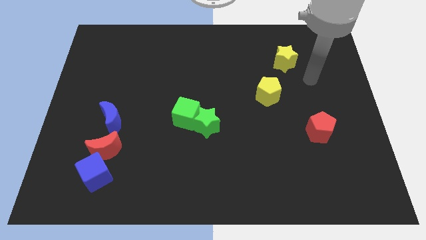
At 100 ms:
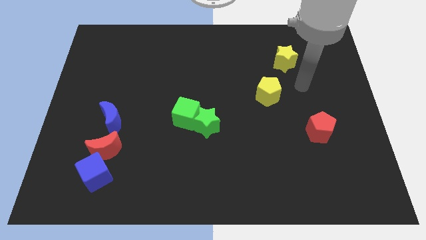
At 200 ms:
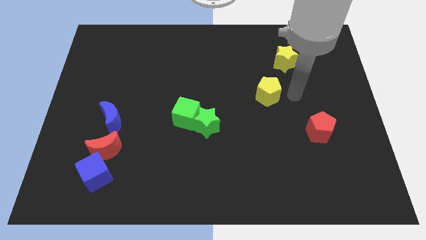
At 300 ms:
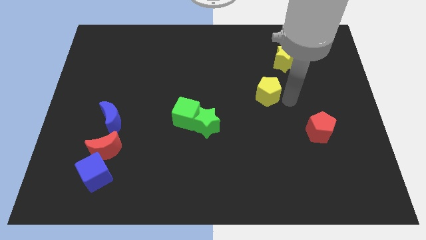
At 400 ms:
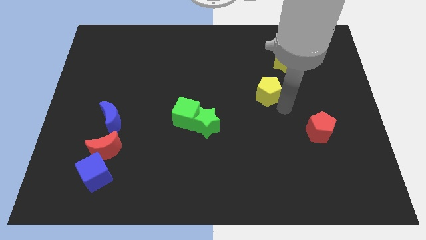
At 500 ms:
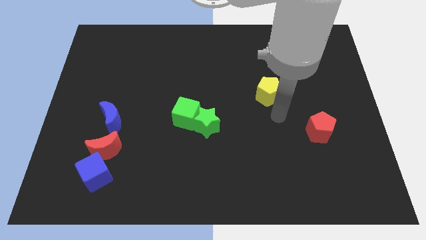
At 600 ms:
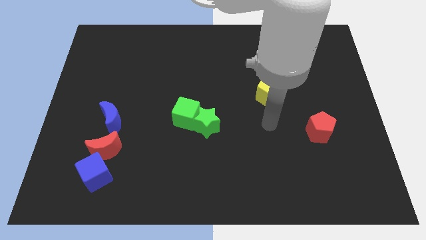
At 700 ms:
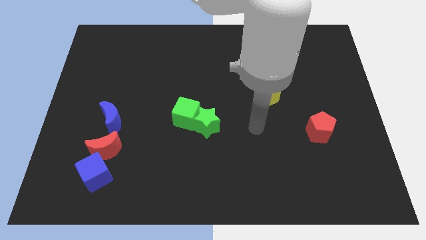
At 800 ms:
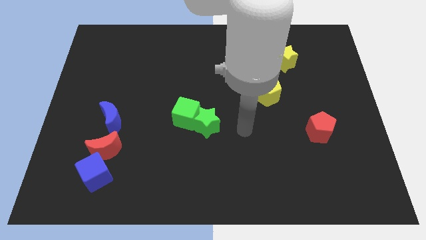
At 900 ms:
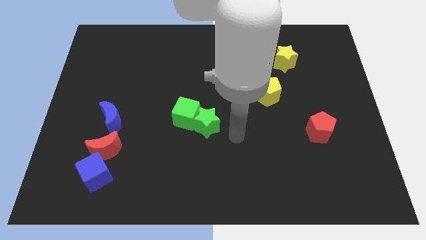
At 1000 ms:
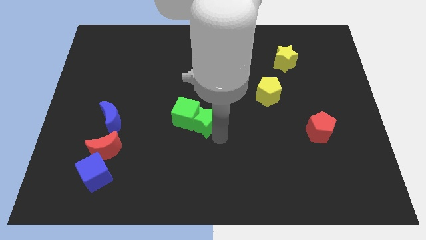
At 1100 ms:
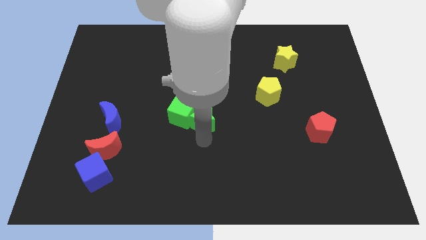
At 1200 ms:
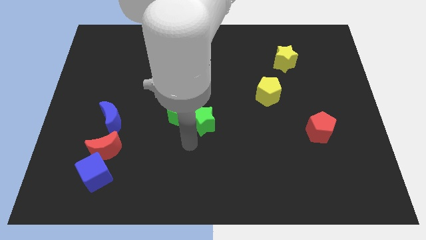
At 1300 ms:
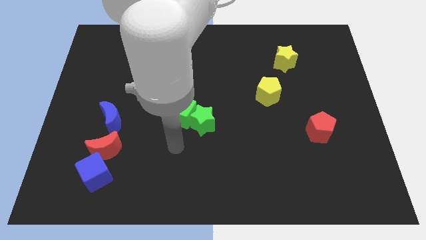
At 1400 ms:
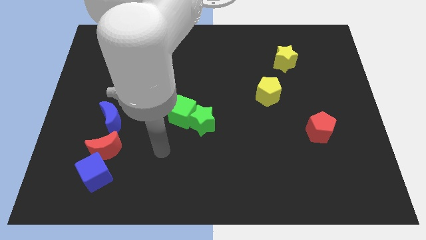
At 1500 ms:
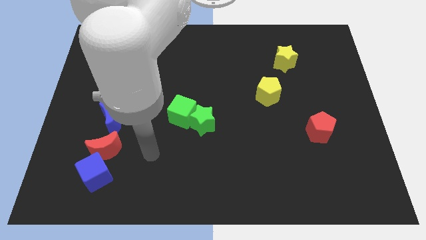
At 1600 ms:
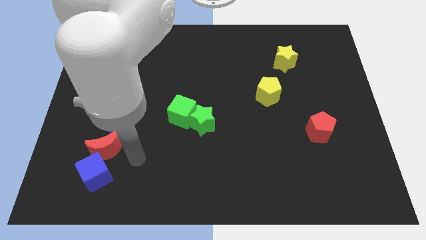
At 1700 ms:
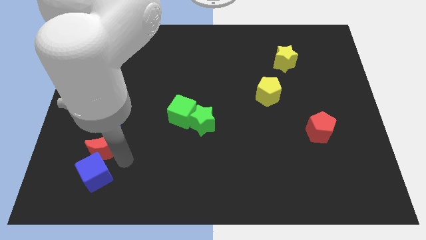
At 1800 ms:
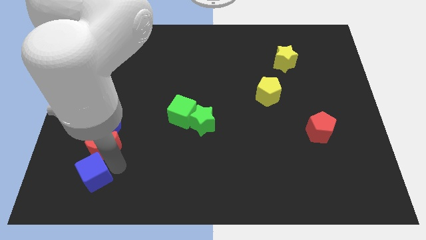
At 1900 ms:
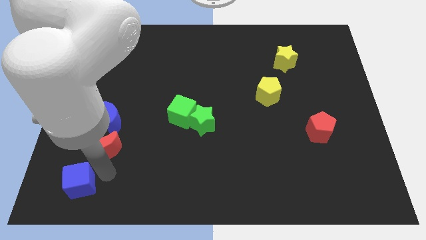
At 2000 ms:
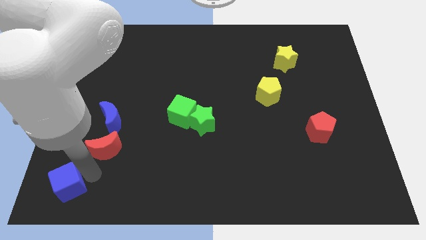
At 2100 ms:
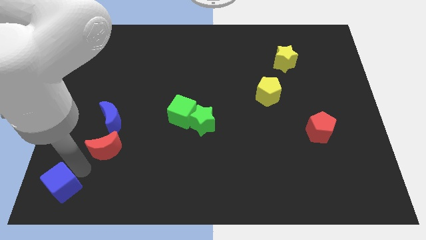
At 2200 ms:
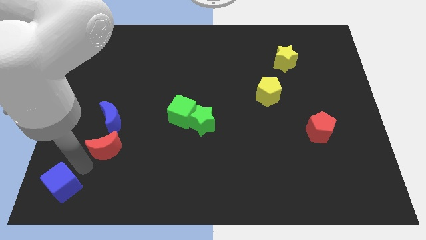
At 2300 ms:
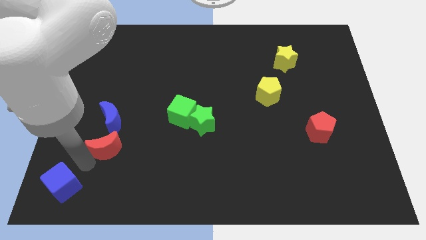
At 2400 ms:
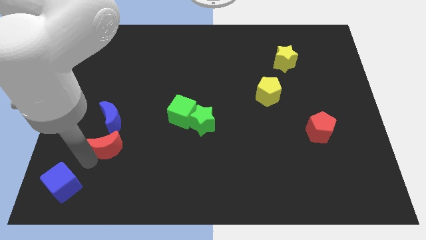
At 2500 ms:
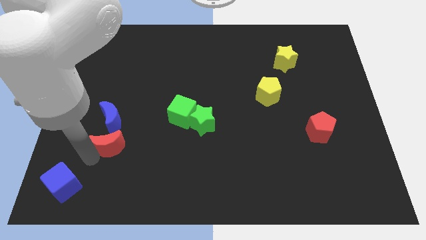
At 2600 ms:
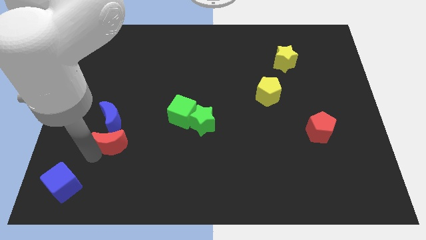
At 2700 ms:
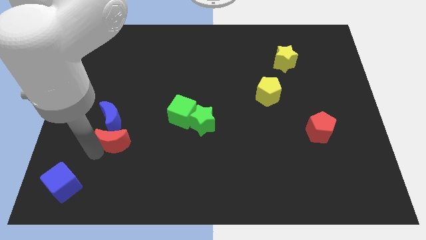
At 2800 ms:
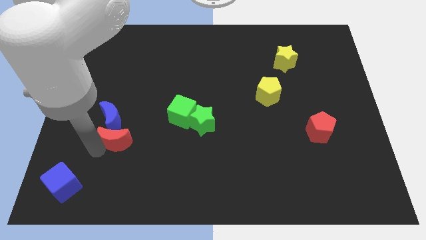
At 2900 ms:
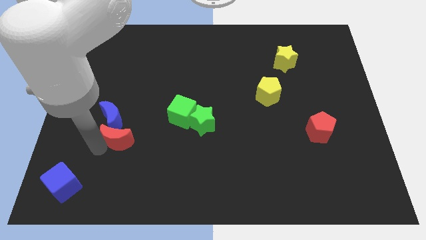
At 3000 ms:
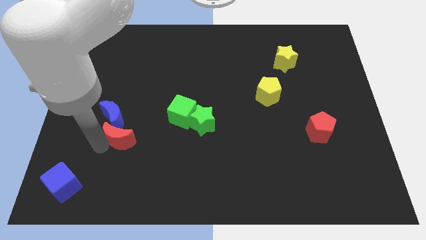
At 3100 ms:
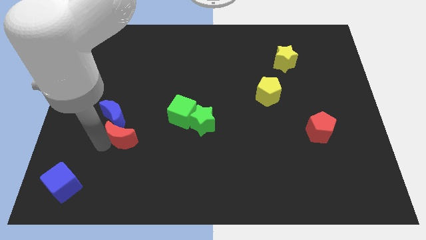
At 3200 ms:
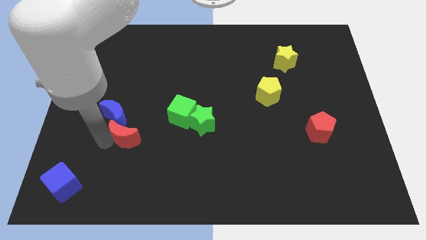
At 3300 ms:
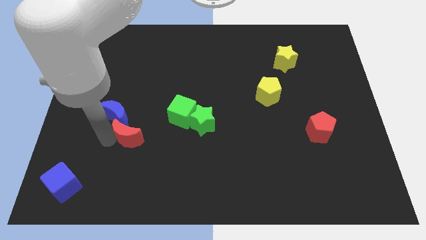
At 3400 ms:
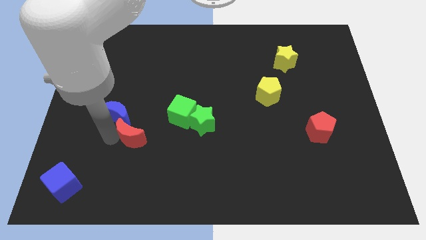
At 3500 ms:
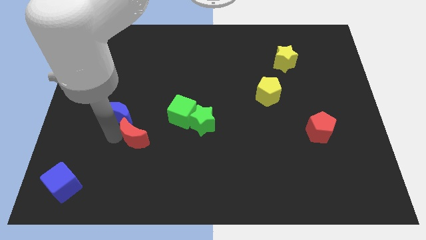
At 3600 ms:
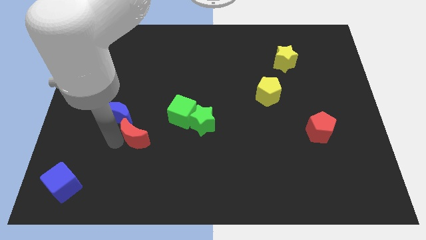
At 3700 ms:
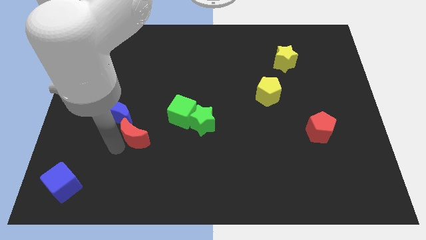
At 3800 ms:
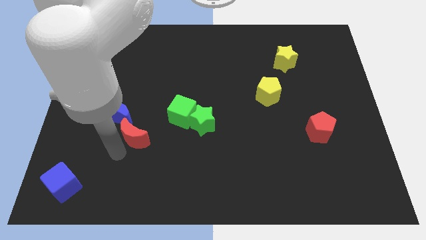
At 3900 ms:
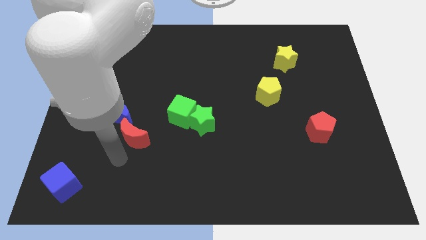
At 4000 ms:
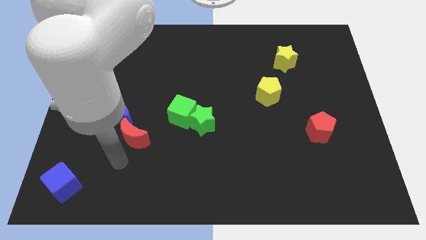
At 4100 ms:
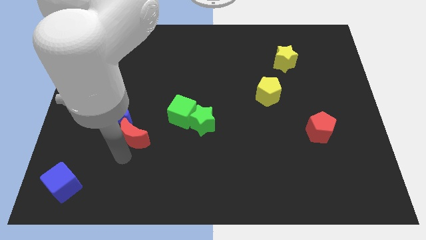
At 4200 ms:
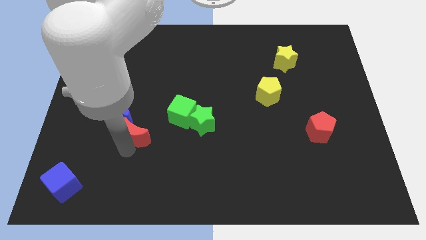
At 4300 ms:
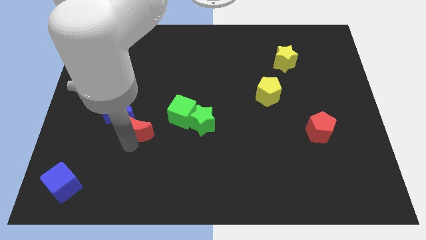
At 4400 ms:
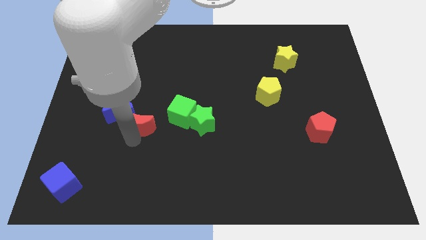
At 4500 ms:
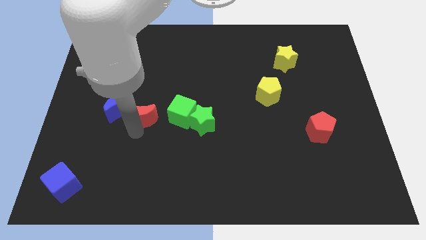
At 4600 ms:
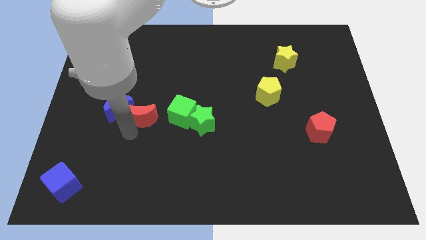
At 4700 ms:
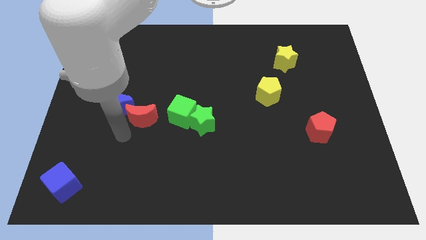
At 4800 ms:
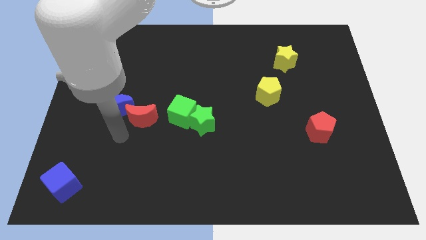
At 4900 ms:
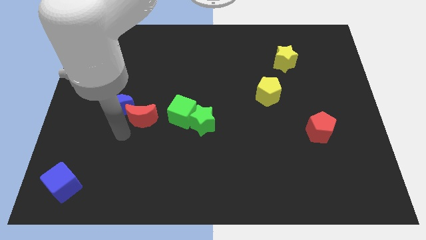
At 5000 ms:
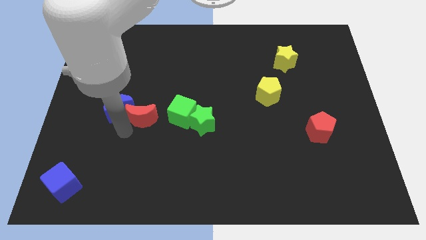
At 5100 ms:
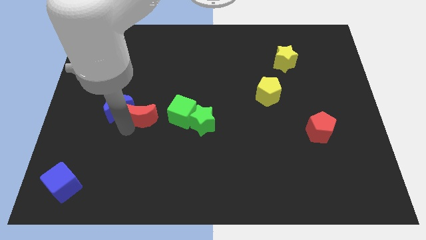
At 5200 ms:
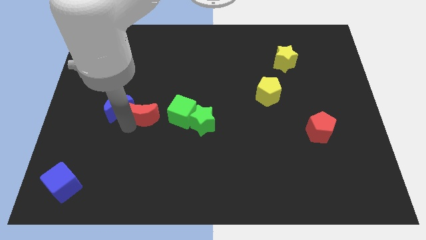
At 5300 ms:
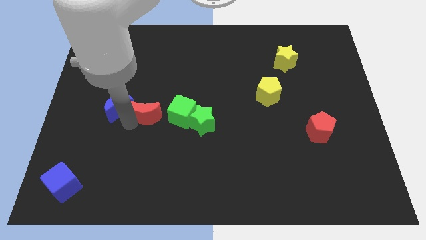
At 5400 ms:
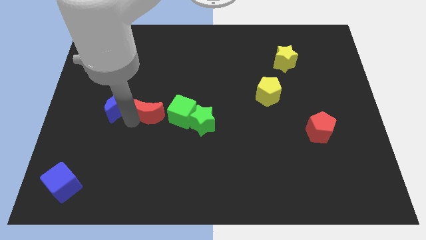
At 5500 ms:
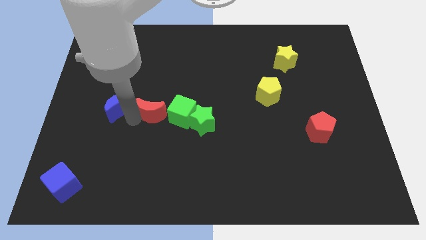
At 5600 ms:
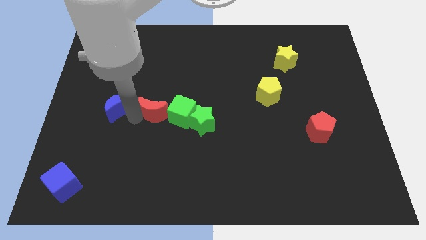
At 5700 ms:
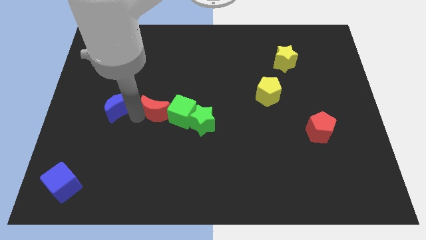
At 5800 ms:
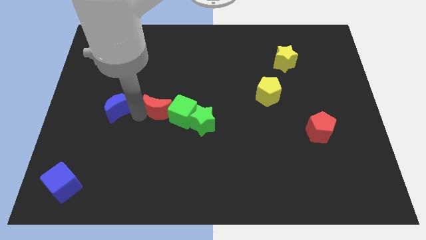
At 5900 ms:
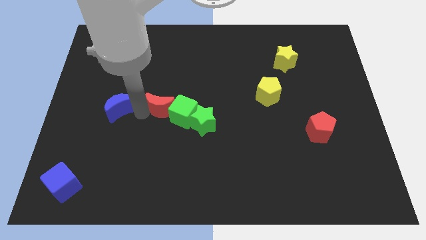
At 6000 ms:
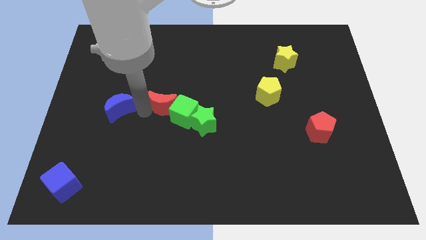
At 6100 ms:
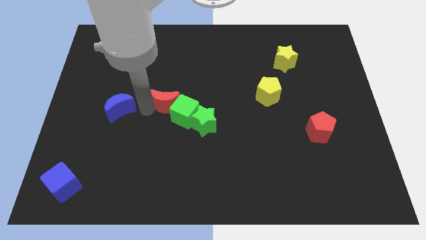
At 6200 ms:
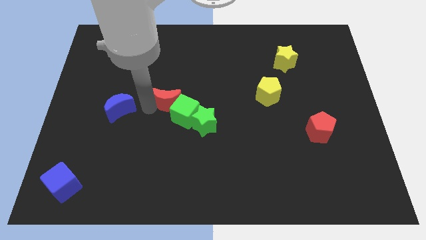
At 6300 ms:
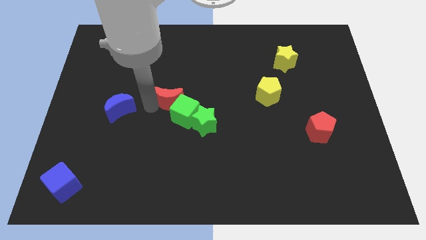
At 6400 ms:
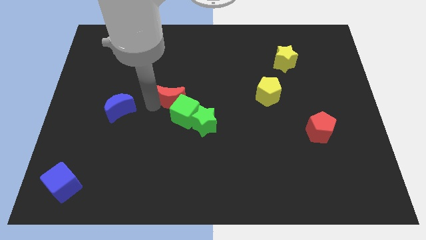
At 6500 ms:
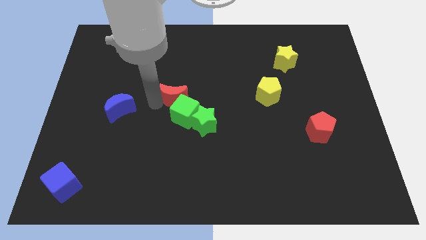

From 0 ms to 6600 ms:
push the red moon up and to the right

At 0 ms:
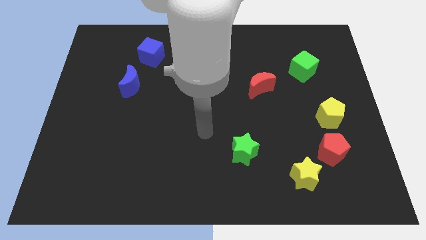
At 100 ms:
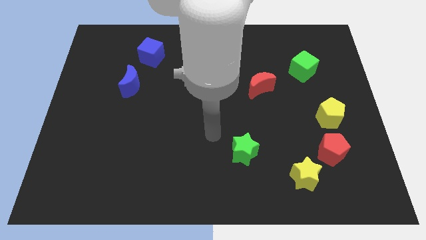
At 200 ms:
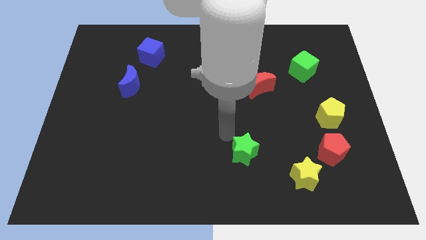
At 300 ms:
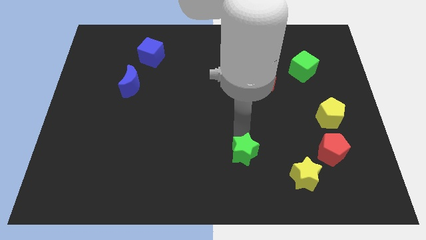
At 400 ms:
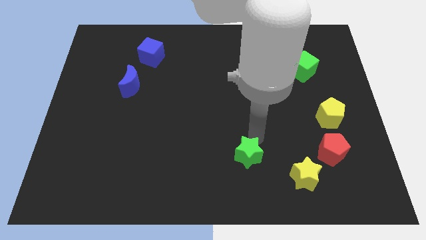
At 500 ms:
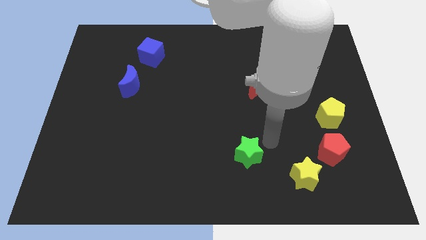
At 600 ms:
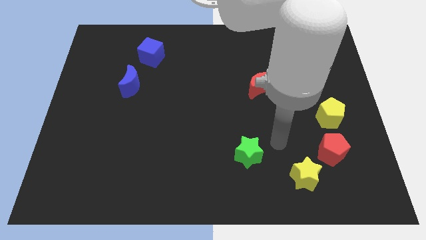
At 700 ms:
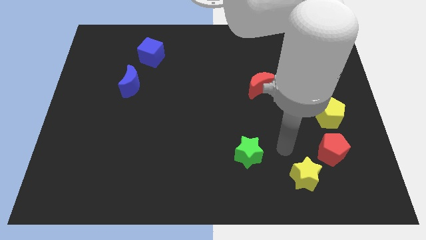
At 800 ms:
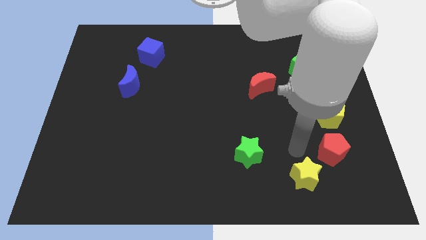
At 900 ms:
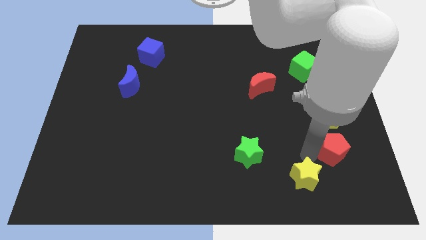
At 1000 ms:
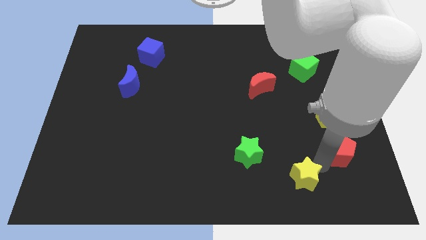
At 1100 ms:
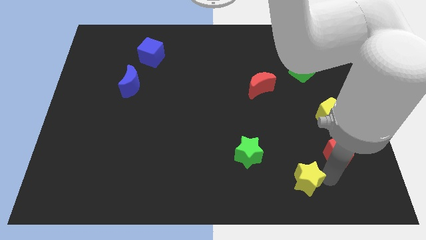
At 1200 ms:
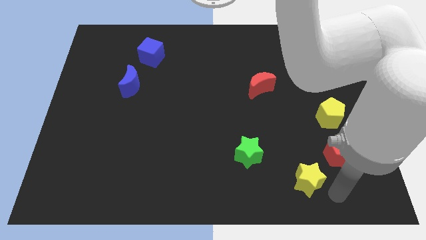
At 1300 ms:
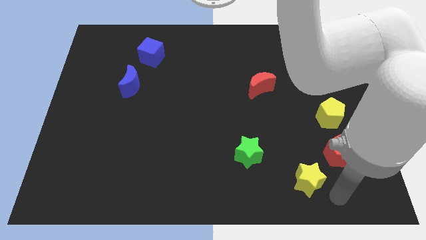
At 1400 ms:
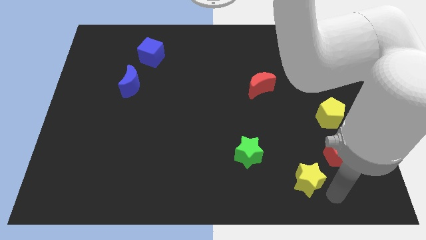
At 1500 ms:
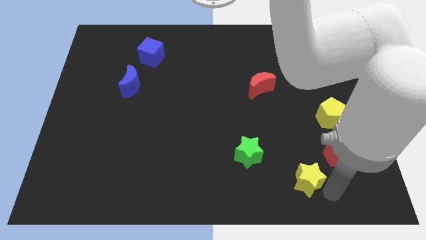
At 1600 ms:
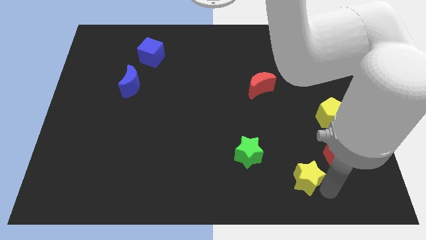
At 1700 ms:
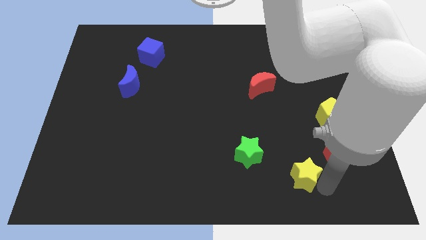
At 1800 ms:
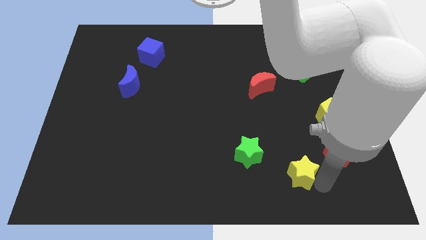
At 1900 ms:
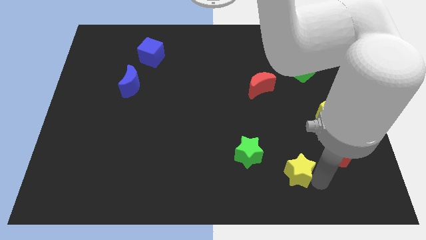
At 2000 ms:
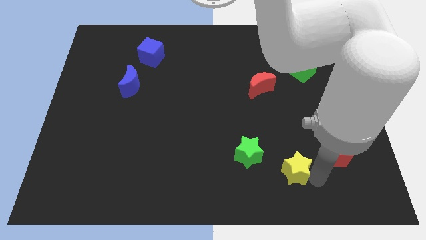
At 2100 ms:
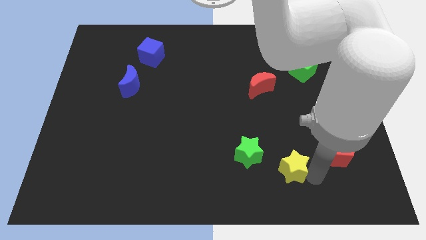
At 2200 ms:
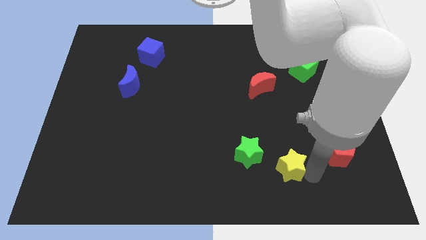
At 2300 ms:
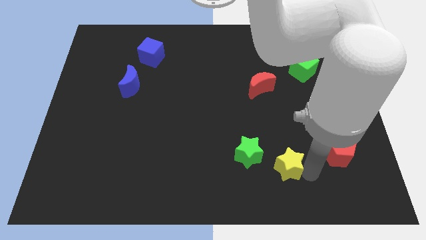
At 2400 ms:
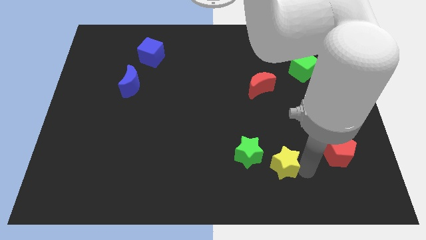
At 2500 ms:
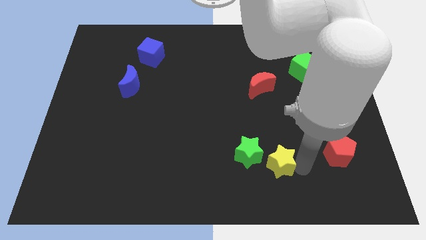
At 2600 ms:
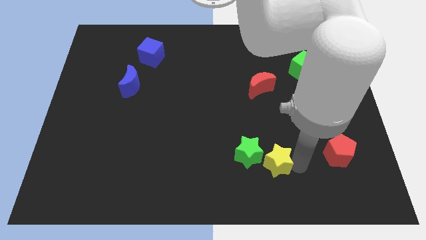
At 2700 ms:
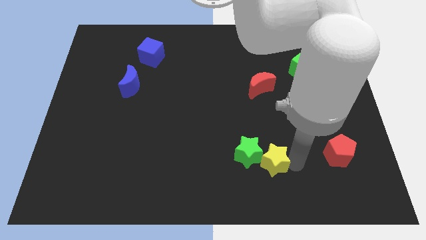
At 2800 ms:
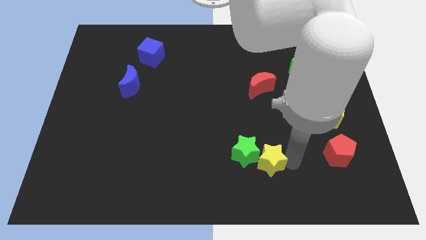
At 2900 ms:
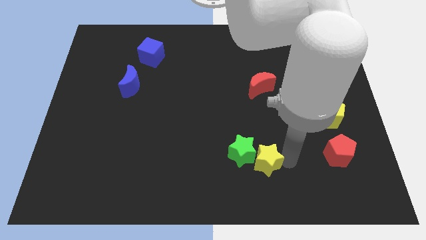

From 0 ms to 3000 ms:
slide the yellow star to the left somewhat
